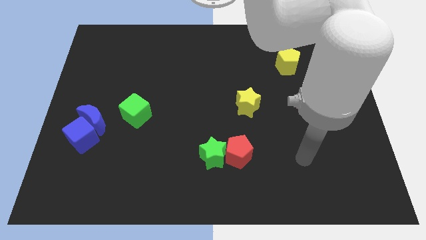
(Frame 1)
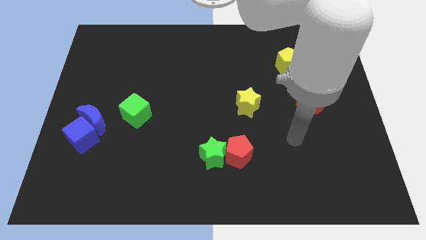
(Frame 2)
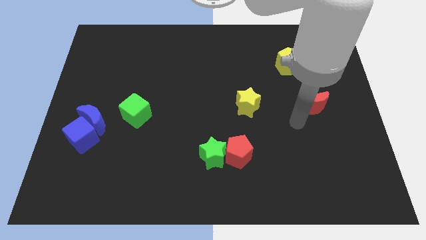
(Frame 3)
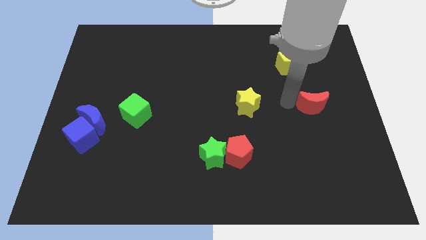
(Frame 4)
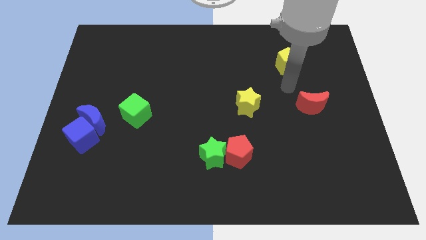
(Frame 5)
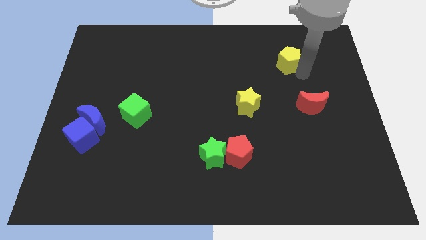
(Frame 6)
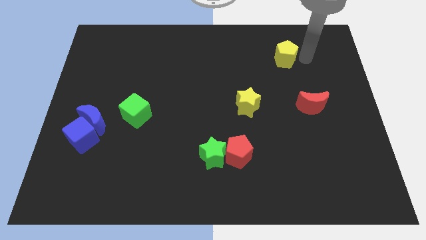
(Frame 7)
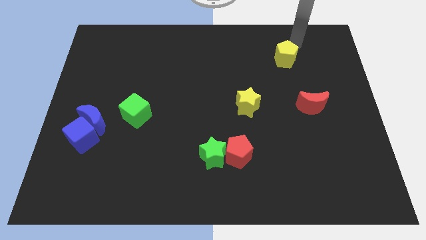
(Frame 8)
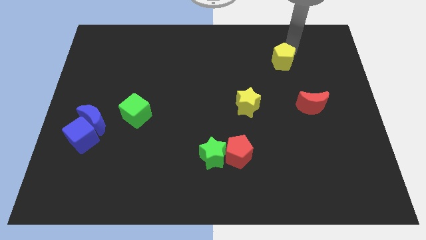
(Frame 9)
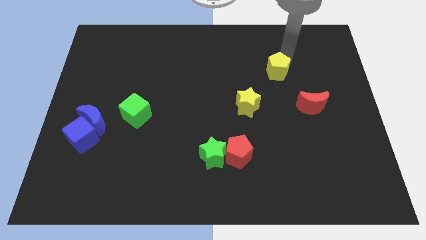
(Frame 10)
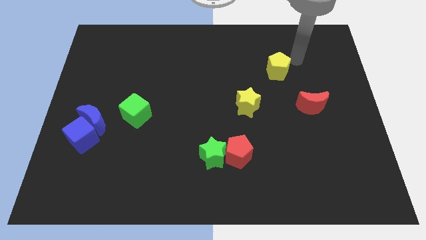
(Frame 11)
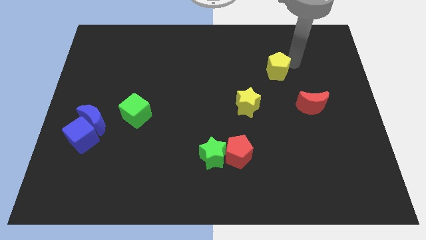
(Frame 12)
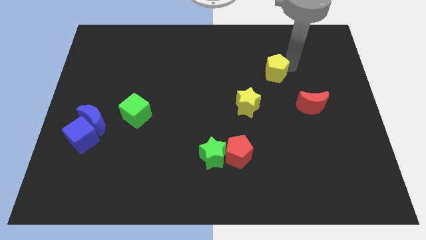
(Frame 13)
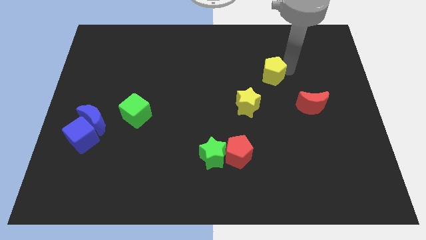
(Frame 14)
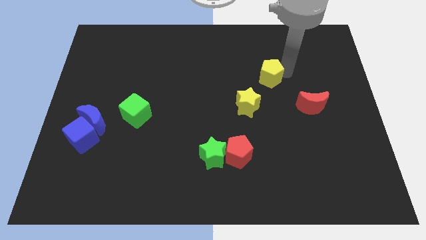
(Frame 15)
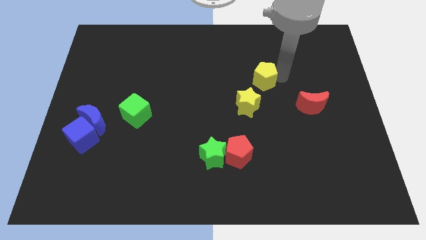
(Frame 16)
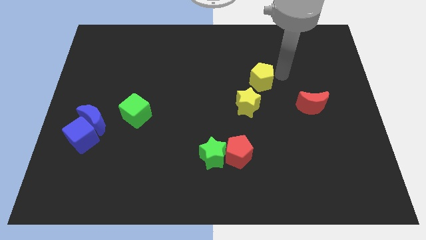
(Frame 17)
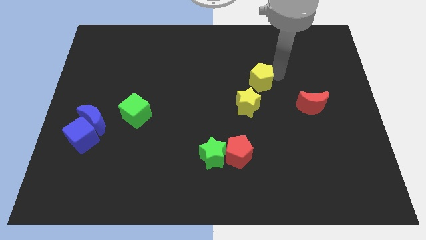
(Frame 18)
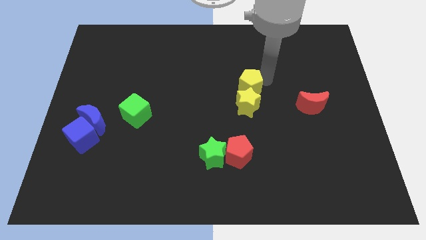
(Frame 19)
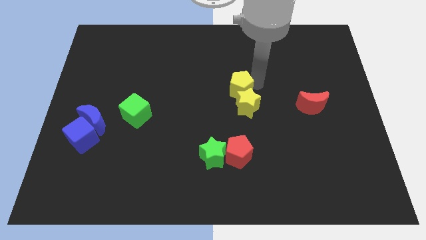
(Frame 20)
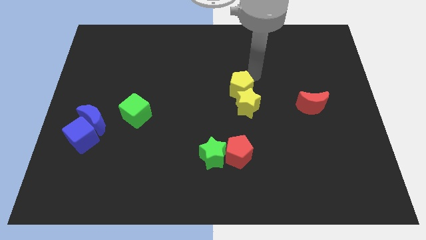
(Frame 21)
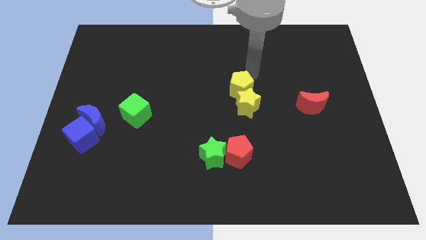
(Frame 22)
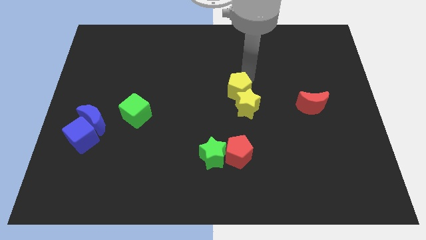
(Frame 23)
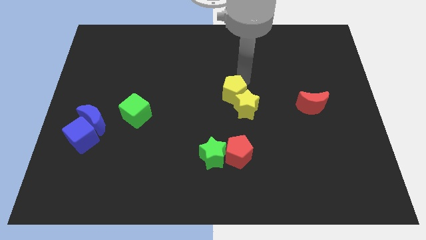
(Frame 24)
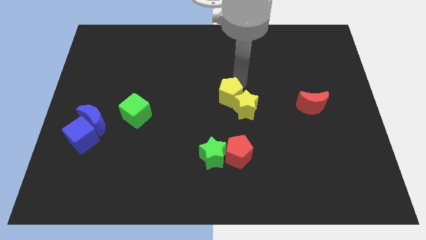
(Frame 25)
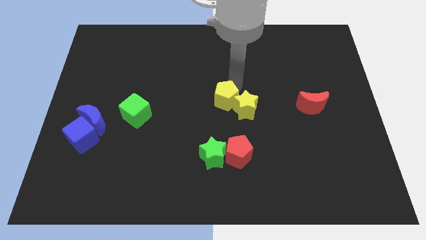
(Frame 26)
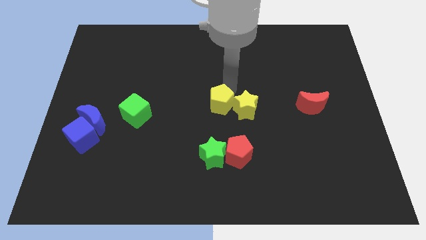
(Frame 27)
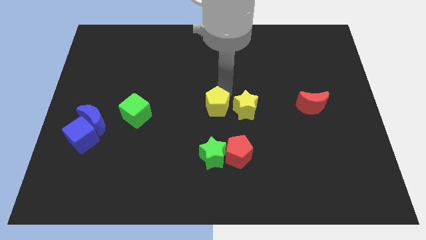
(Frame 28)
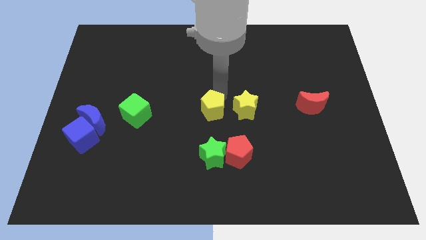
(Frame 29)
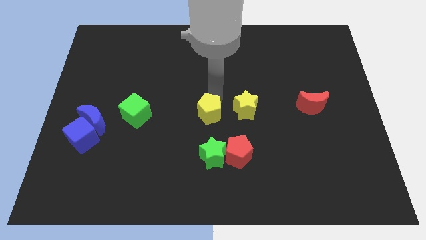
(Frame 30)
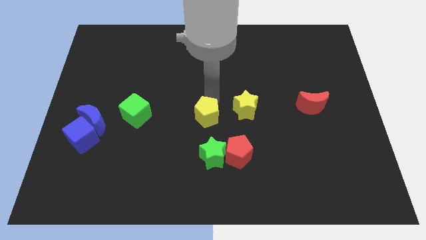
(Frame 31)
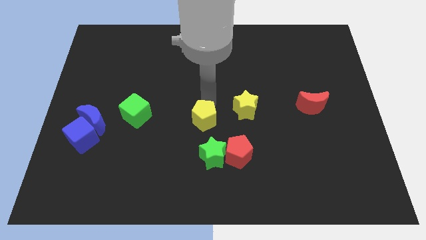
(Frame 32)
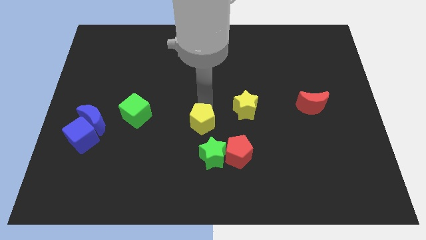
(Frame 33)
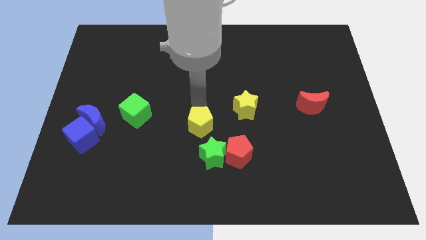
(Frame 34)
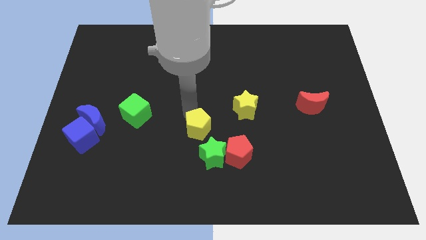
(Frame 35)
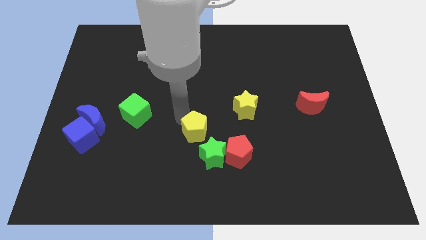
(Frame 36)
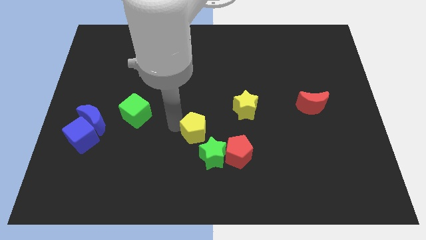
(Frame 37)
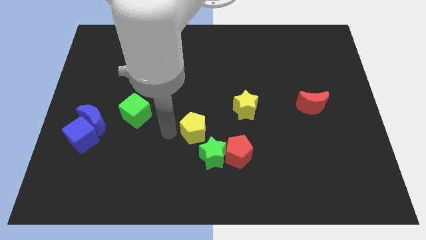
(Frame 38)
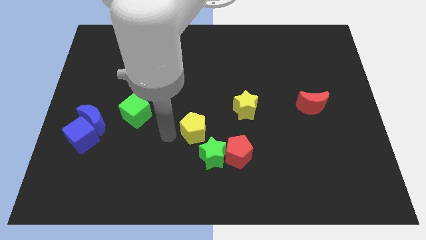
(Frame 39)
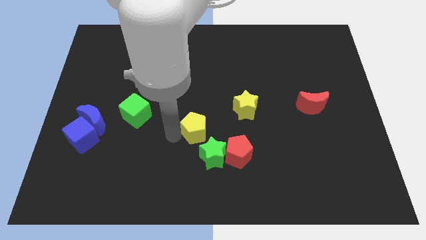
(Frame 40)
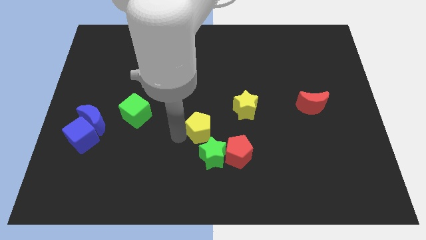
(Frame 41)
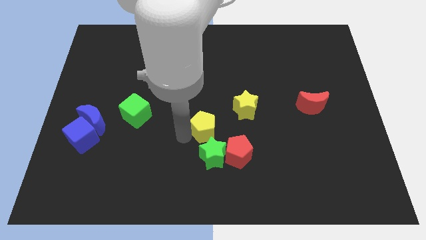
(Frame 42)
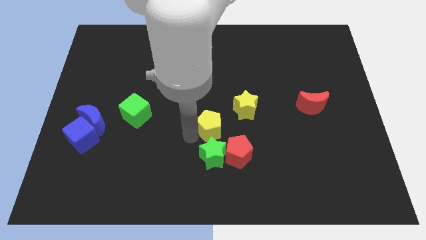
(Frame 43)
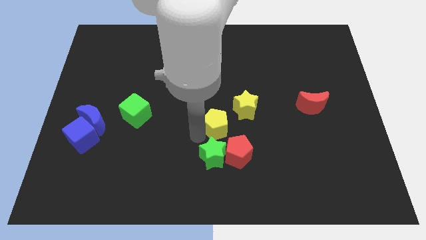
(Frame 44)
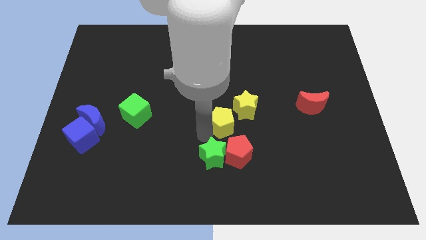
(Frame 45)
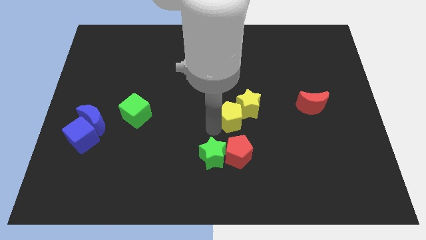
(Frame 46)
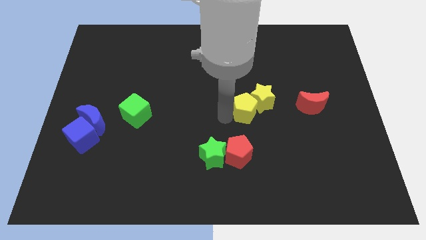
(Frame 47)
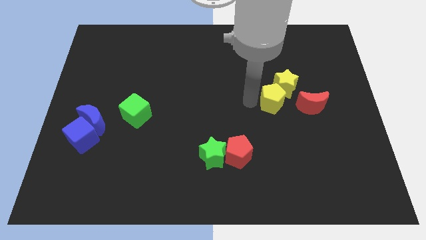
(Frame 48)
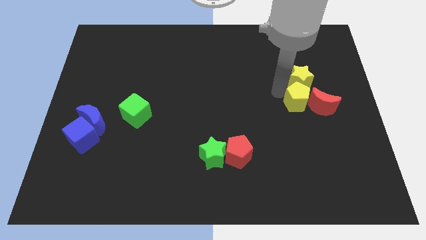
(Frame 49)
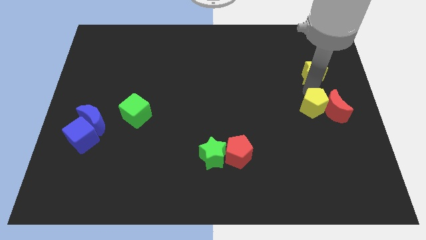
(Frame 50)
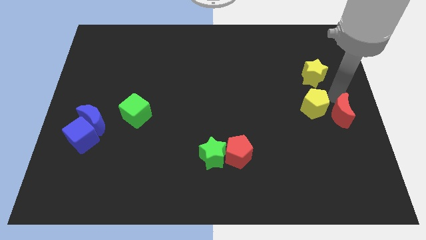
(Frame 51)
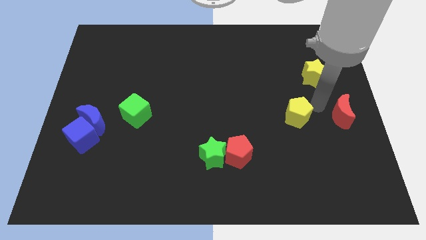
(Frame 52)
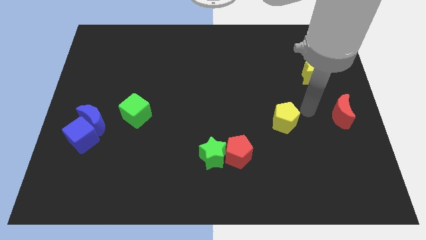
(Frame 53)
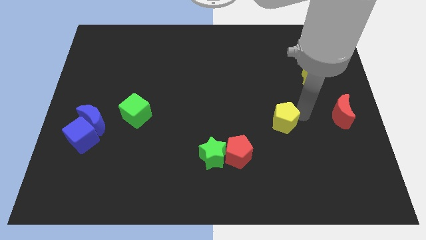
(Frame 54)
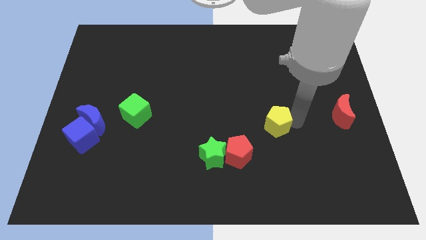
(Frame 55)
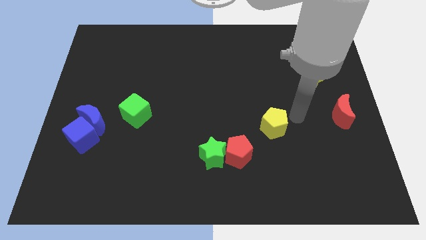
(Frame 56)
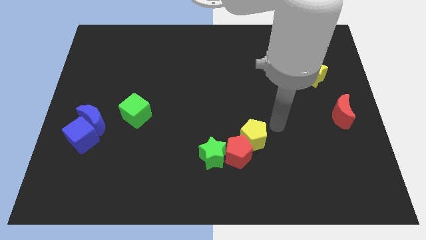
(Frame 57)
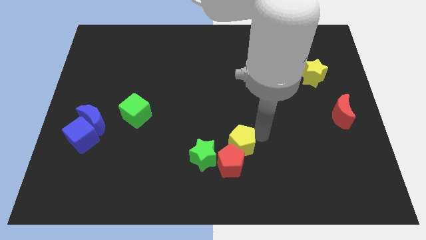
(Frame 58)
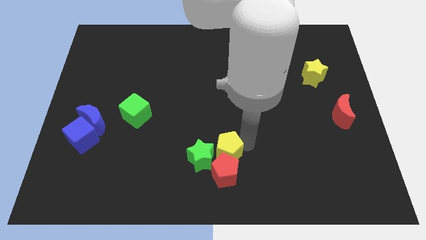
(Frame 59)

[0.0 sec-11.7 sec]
move the yellow pentagon towards the green star
